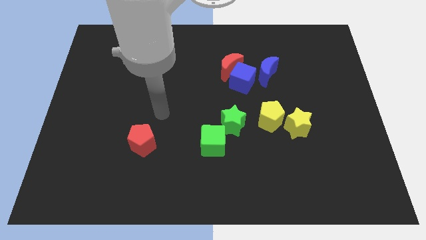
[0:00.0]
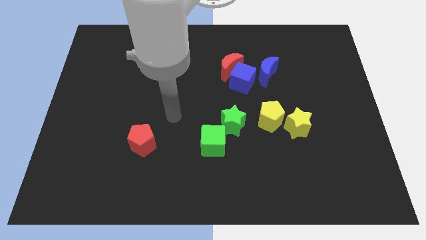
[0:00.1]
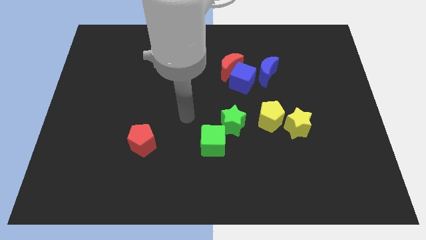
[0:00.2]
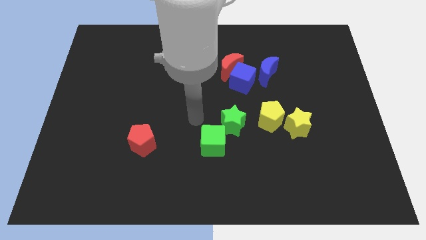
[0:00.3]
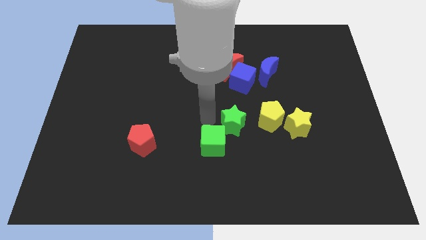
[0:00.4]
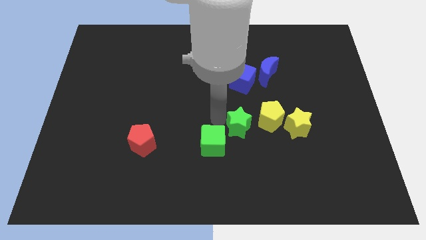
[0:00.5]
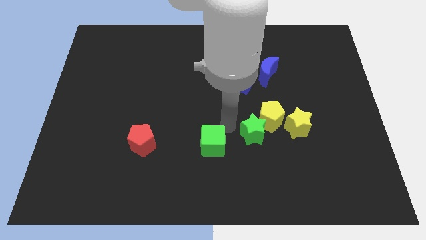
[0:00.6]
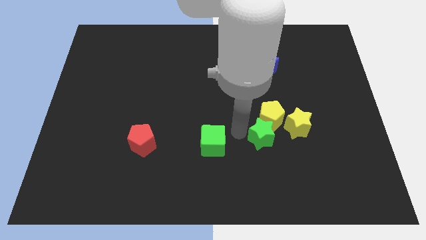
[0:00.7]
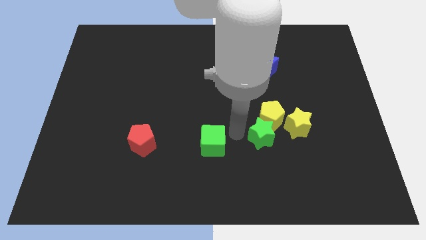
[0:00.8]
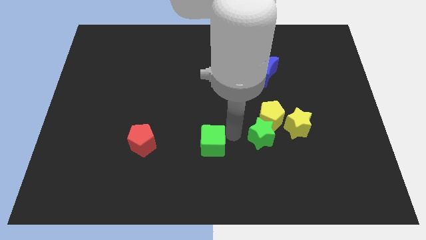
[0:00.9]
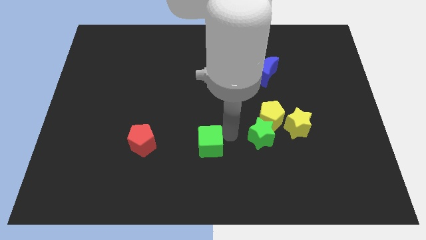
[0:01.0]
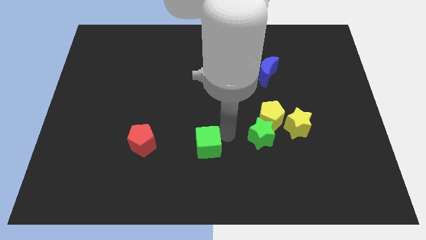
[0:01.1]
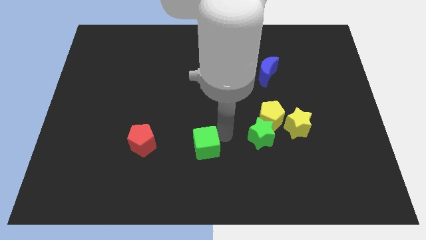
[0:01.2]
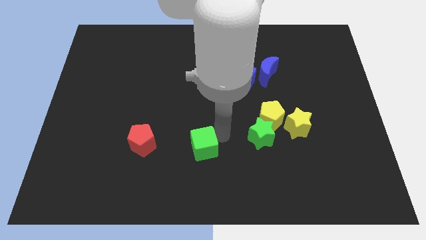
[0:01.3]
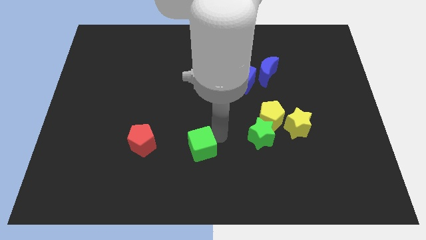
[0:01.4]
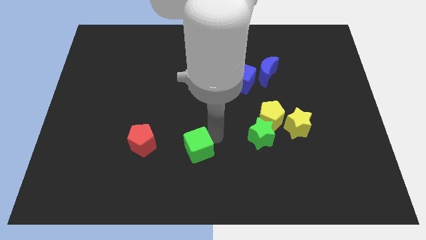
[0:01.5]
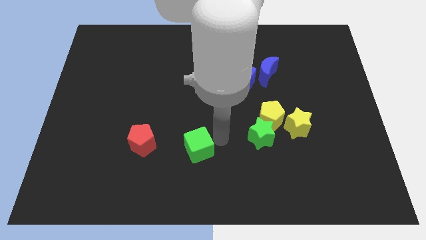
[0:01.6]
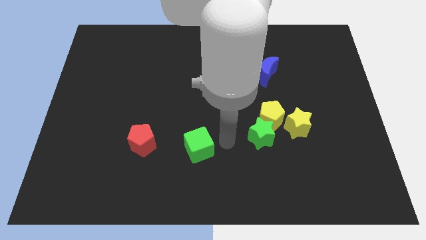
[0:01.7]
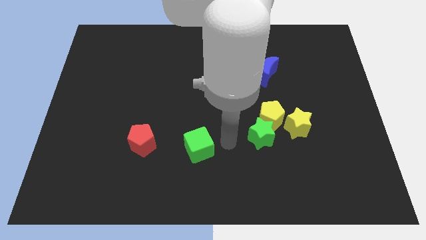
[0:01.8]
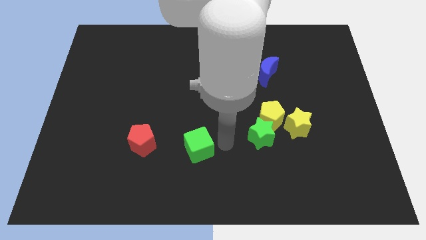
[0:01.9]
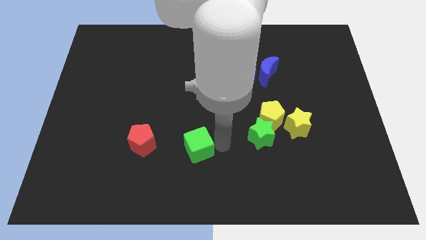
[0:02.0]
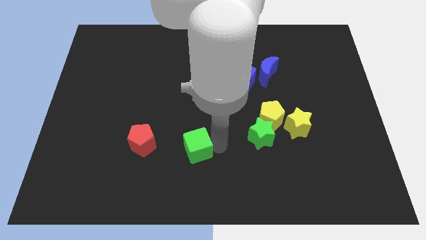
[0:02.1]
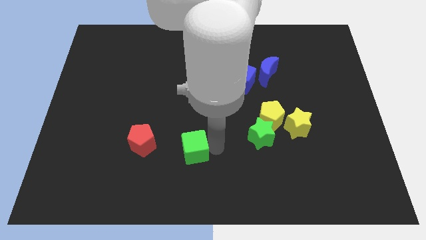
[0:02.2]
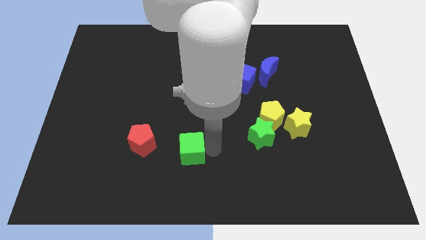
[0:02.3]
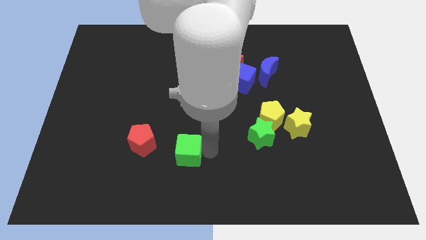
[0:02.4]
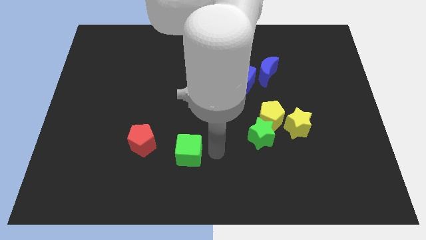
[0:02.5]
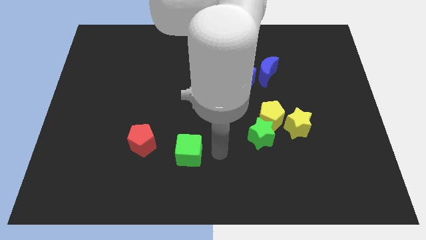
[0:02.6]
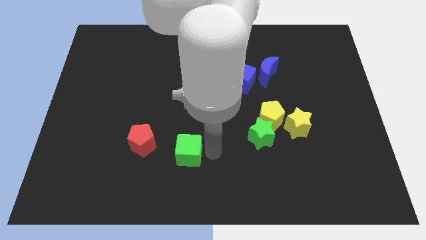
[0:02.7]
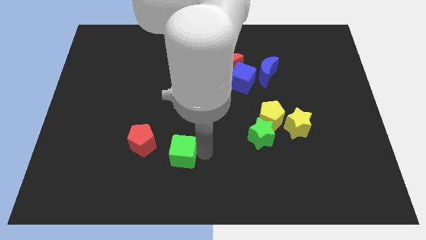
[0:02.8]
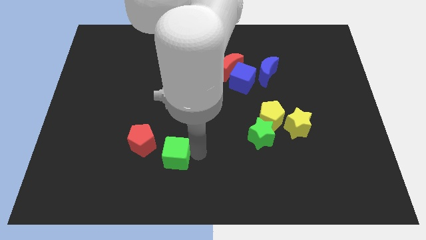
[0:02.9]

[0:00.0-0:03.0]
slightly slide the green cube to the left

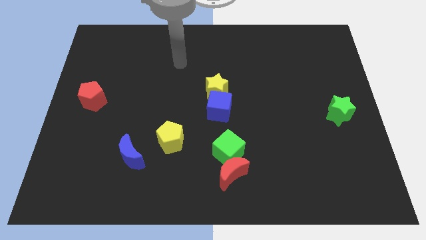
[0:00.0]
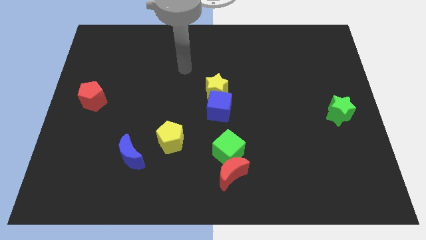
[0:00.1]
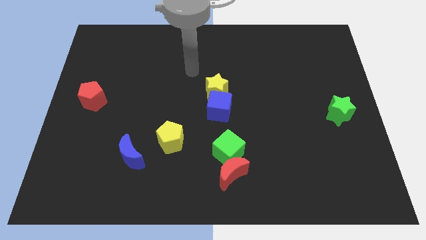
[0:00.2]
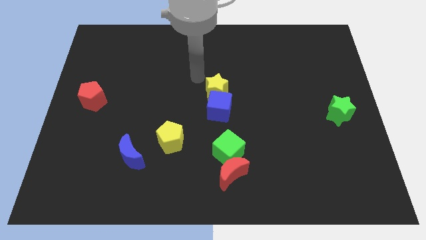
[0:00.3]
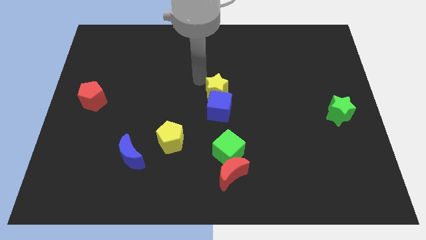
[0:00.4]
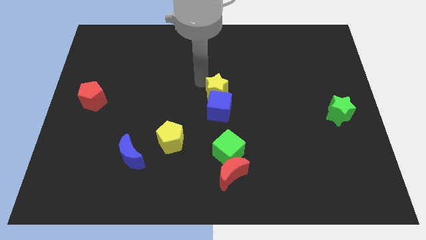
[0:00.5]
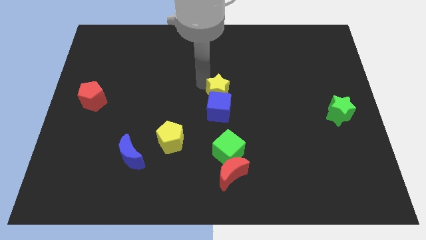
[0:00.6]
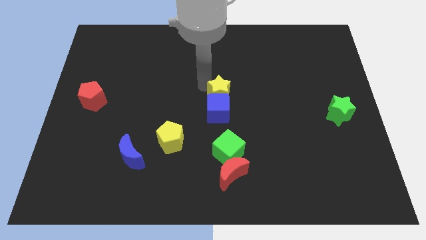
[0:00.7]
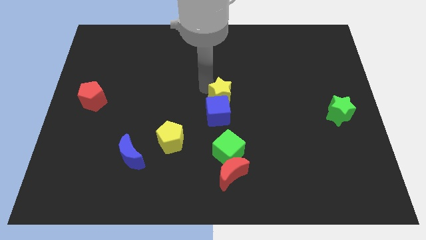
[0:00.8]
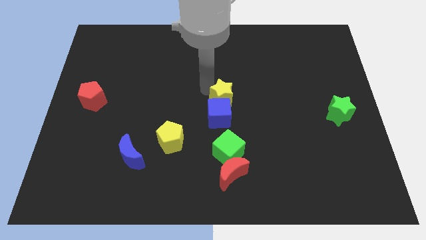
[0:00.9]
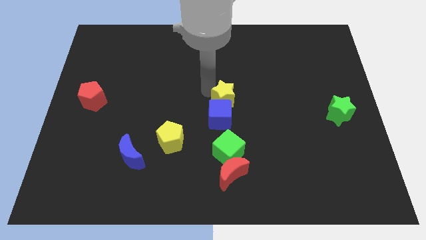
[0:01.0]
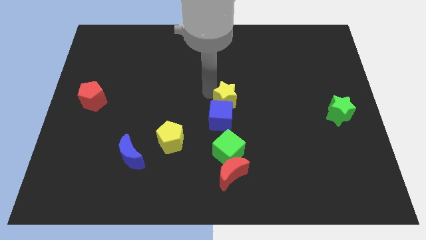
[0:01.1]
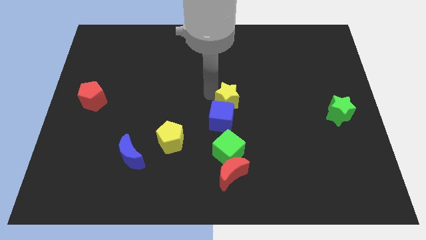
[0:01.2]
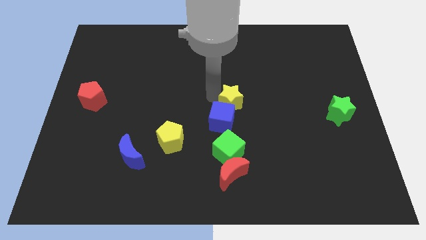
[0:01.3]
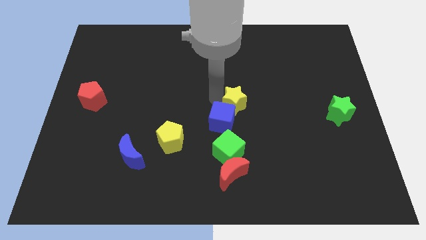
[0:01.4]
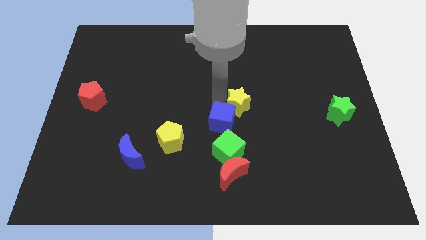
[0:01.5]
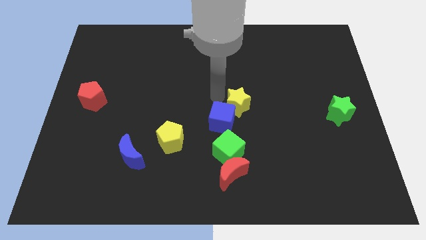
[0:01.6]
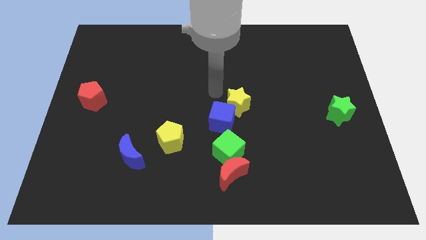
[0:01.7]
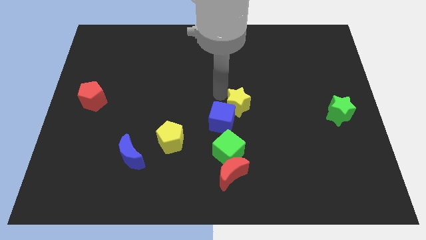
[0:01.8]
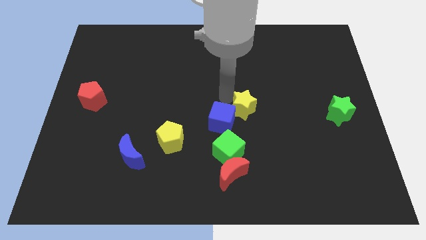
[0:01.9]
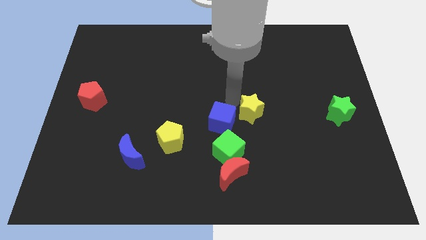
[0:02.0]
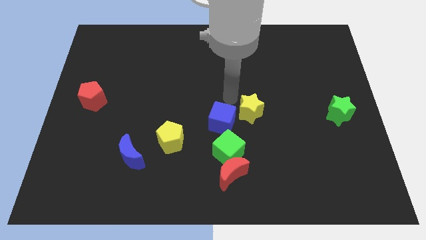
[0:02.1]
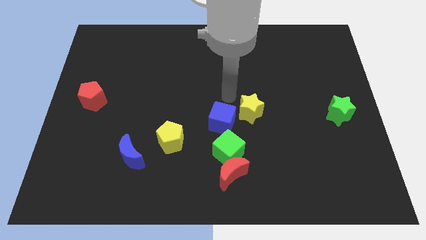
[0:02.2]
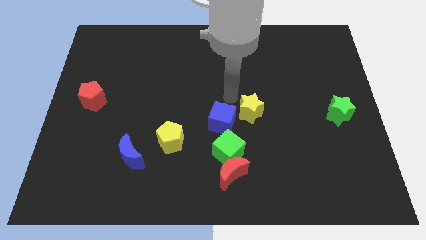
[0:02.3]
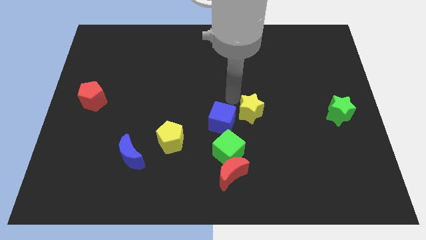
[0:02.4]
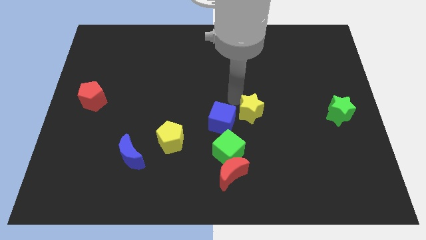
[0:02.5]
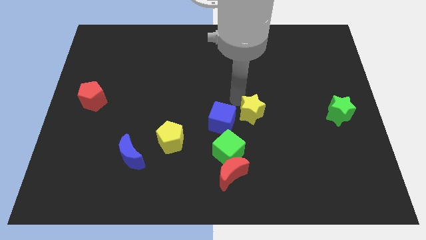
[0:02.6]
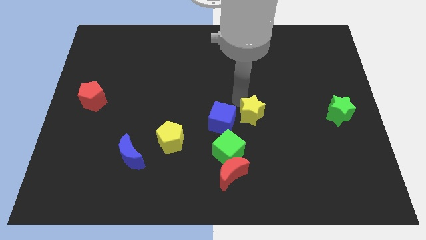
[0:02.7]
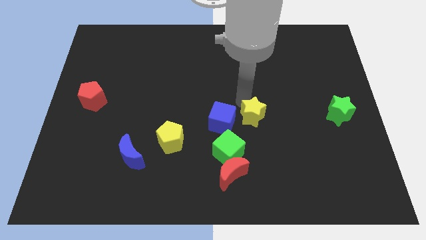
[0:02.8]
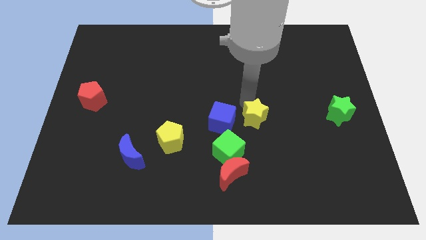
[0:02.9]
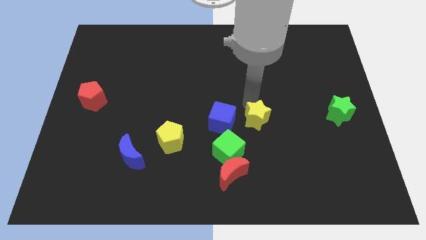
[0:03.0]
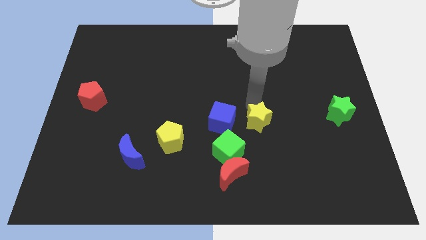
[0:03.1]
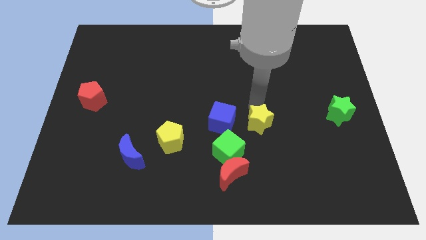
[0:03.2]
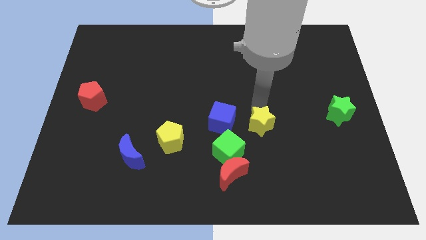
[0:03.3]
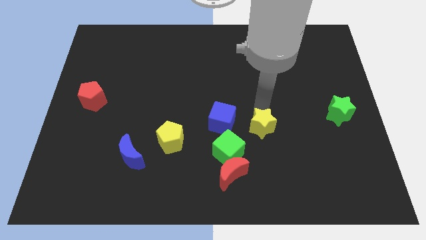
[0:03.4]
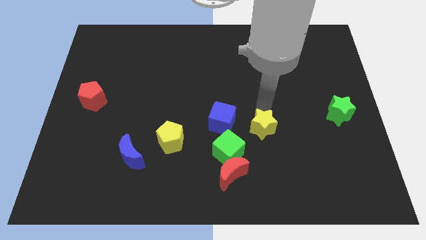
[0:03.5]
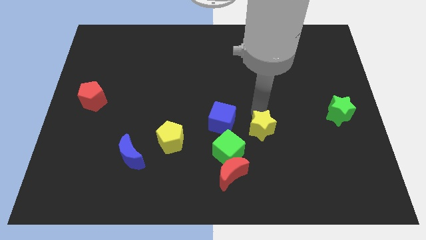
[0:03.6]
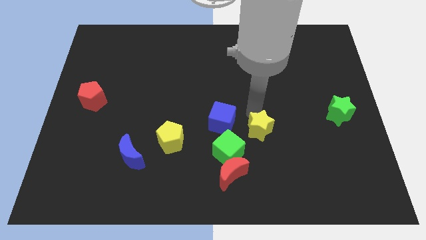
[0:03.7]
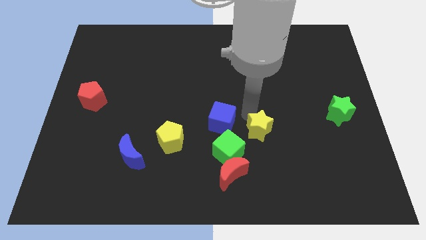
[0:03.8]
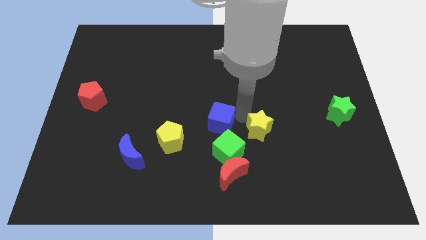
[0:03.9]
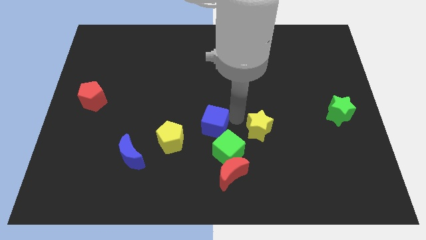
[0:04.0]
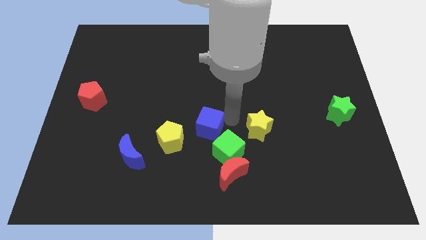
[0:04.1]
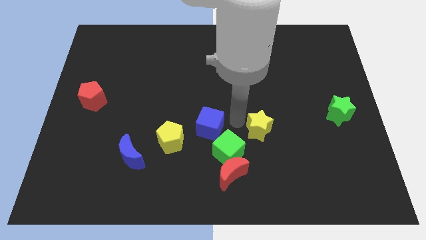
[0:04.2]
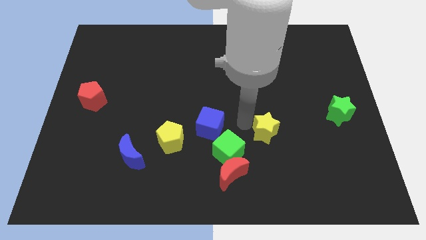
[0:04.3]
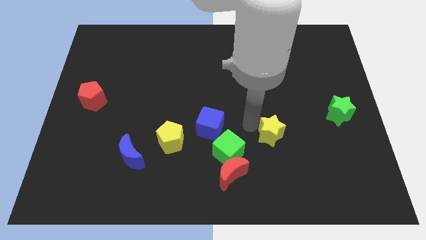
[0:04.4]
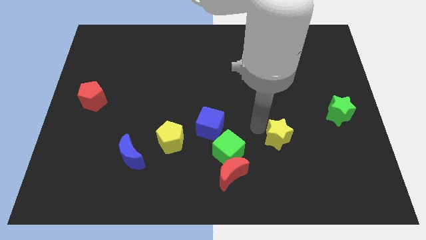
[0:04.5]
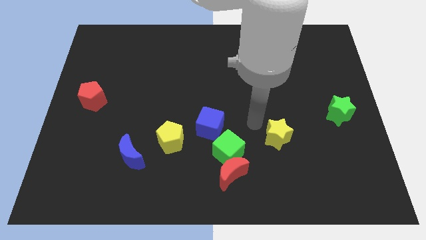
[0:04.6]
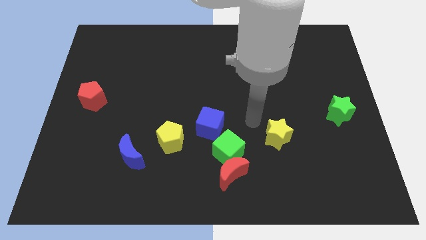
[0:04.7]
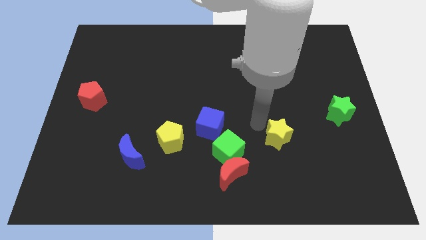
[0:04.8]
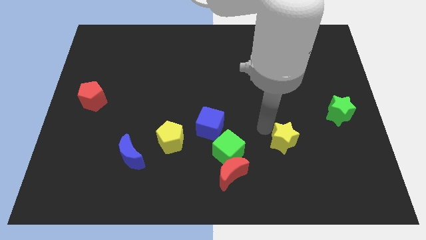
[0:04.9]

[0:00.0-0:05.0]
slide the yellow star down and right diagonally
